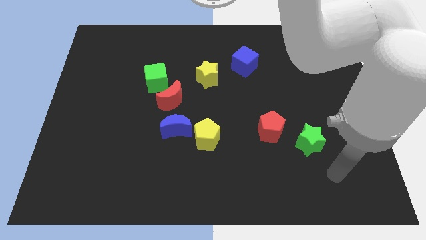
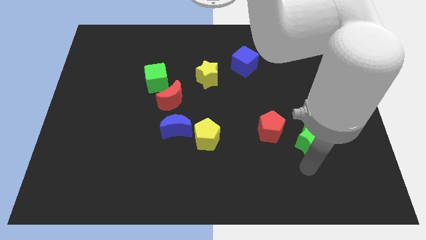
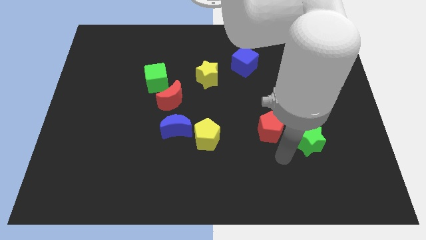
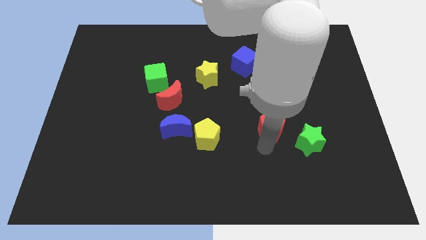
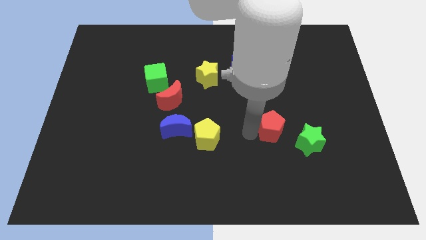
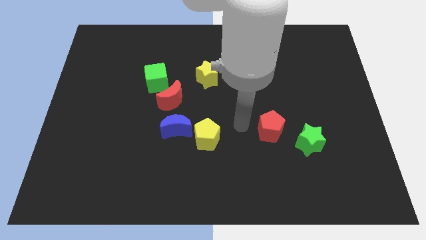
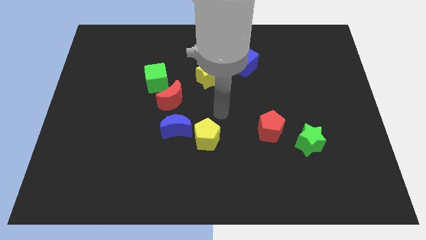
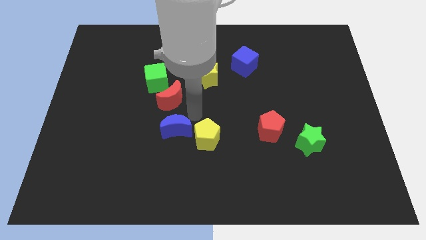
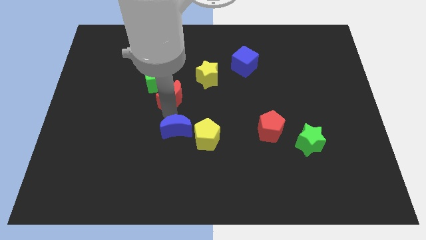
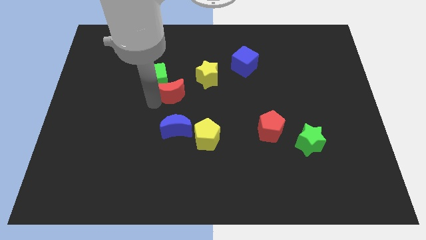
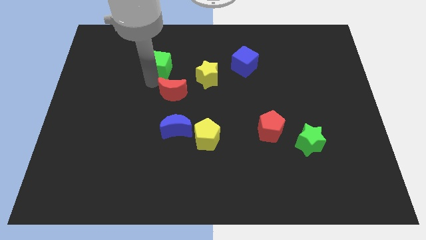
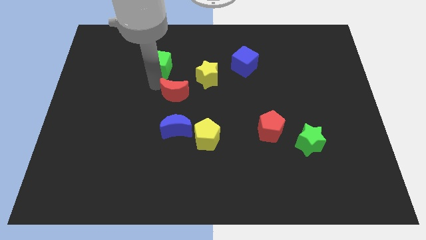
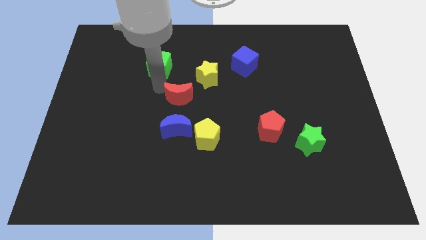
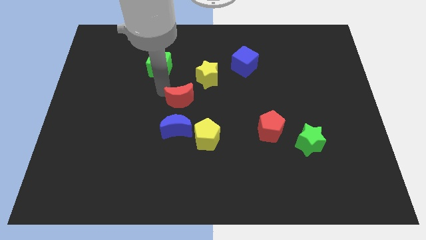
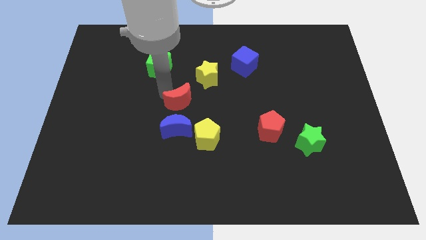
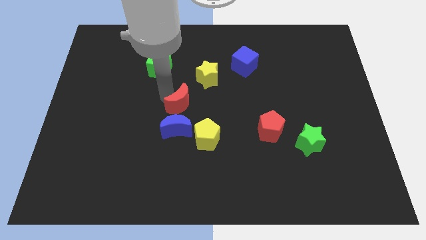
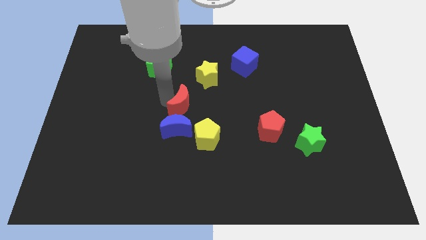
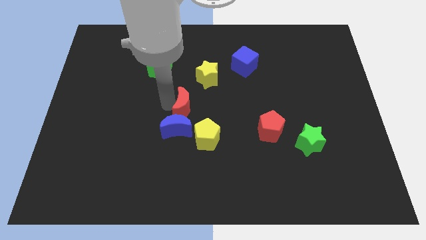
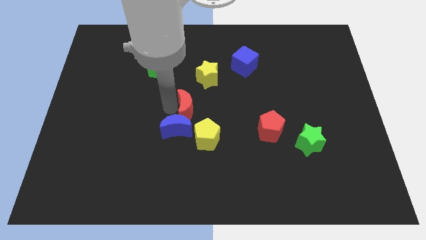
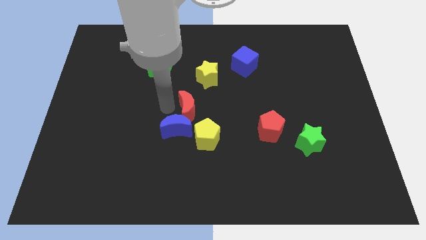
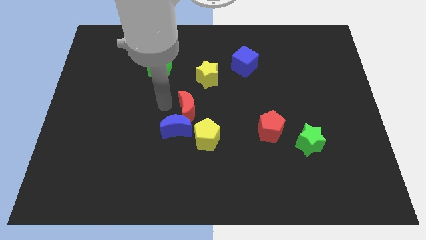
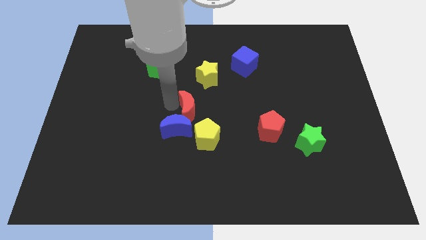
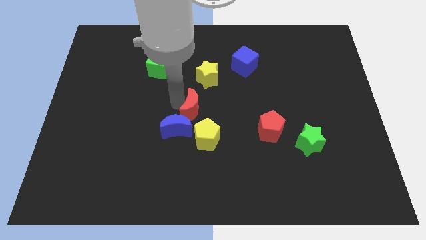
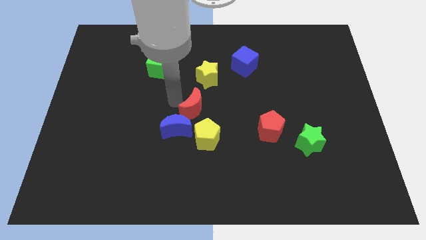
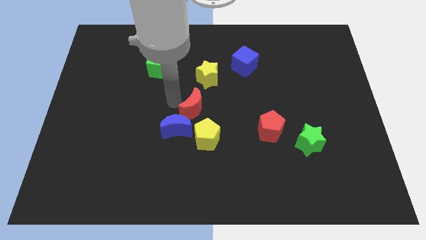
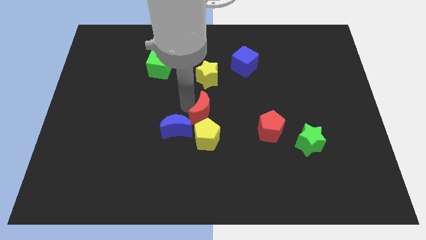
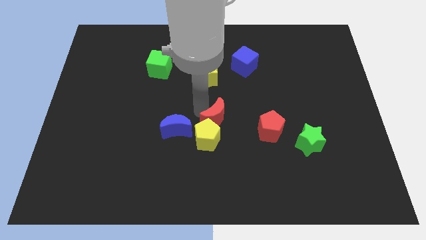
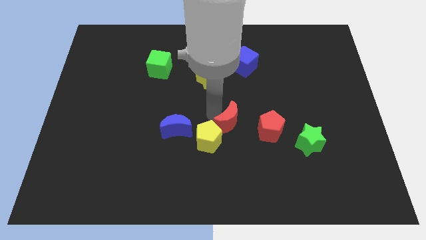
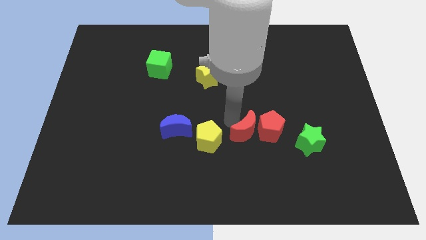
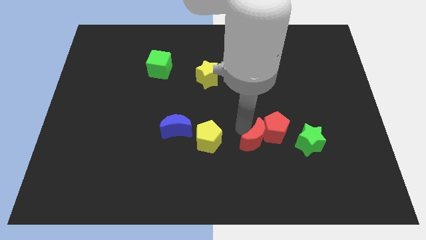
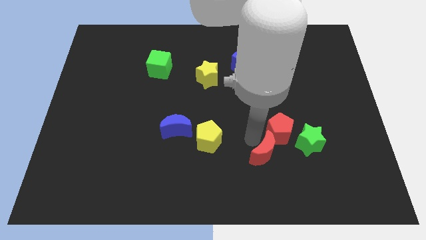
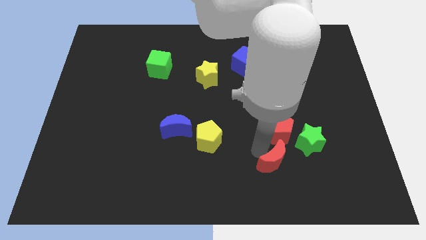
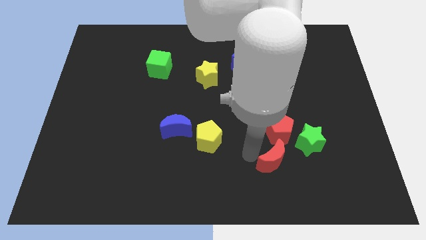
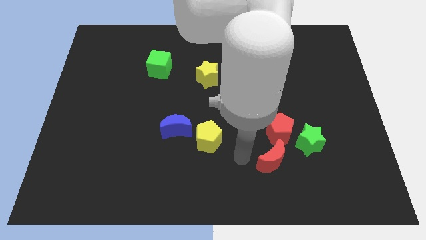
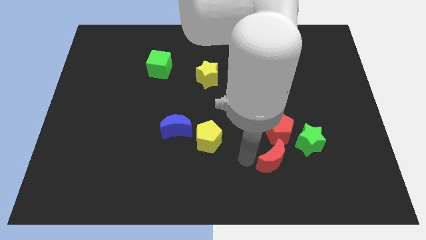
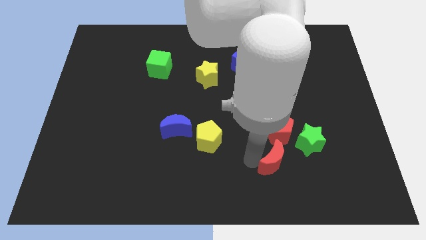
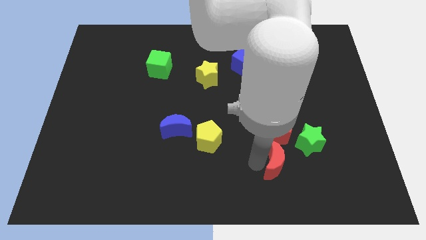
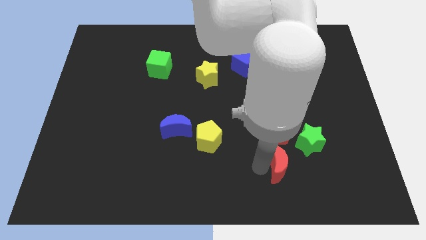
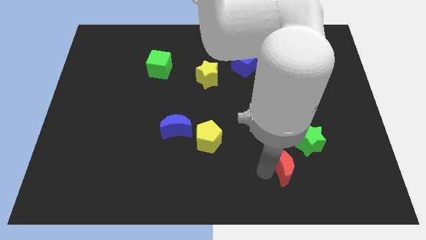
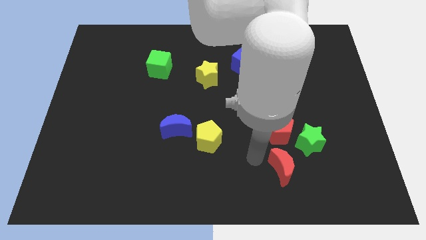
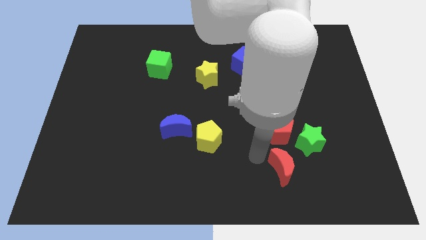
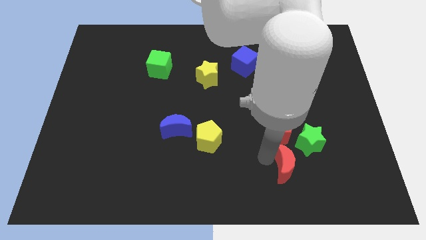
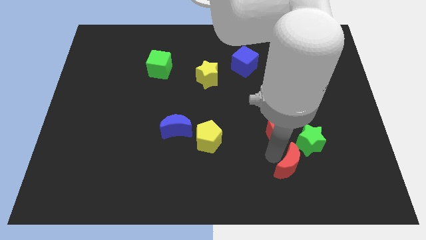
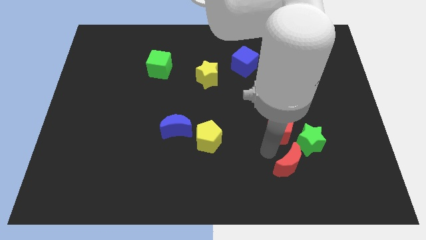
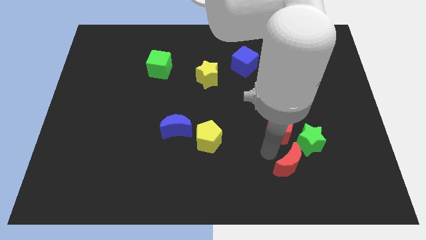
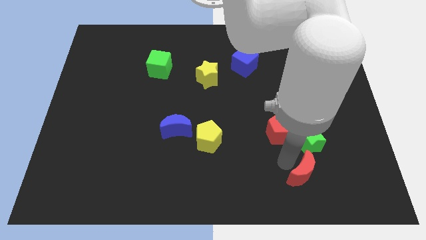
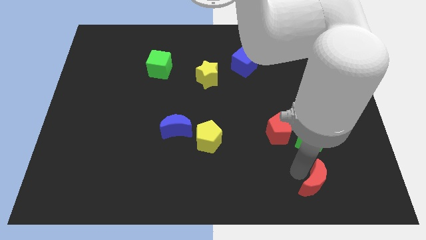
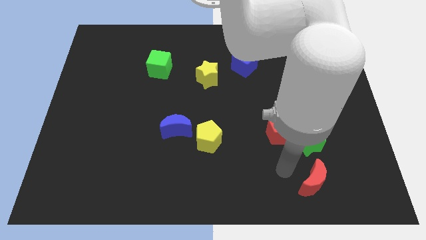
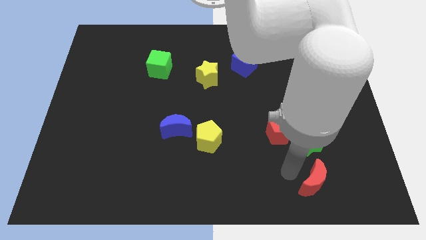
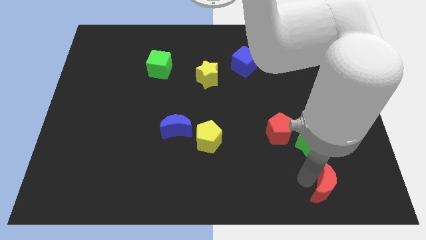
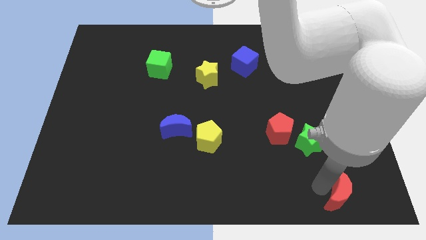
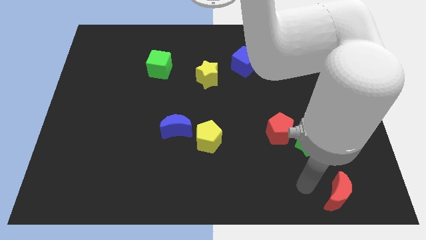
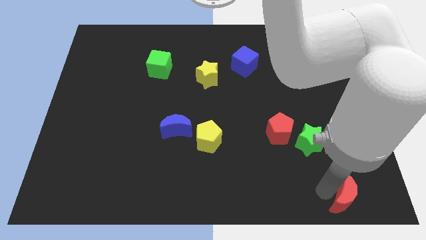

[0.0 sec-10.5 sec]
slide the red moon to the bottom right corner

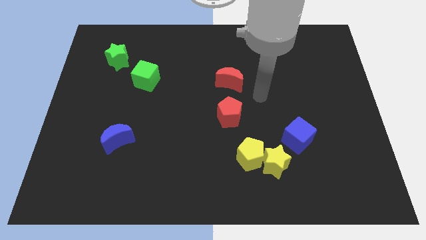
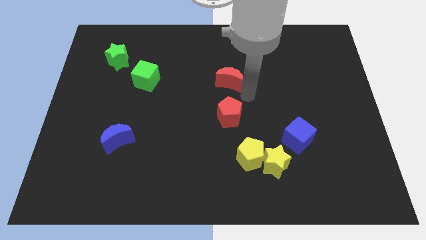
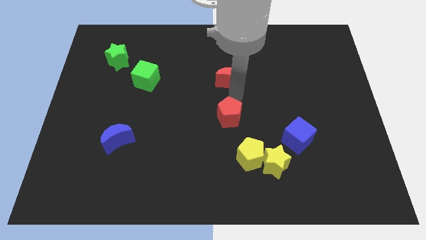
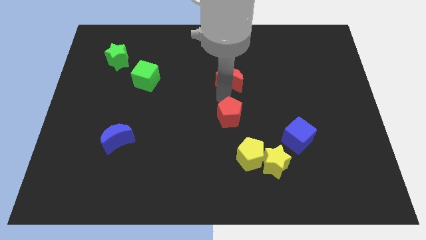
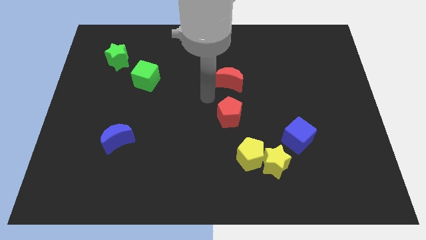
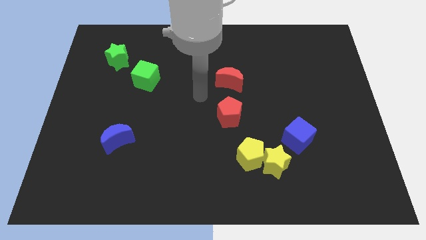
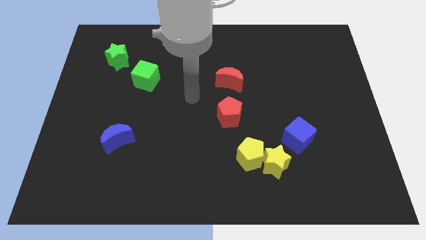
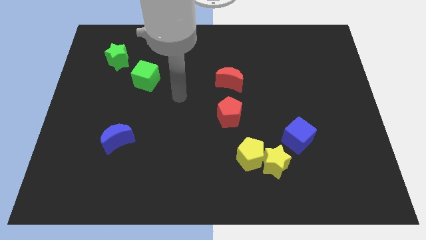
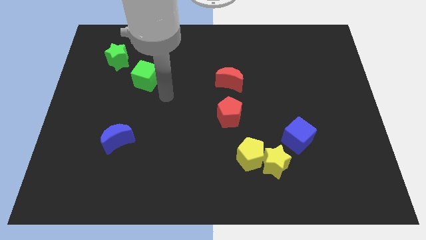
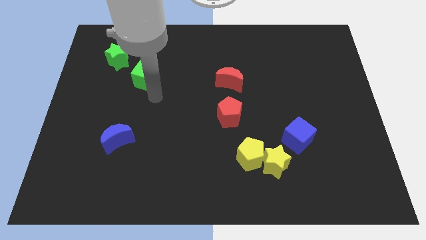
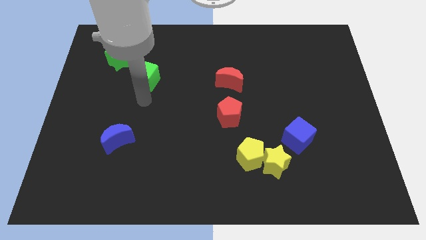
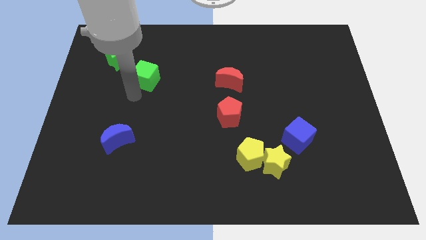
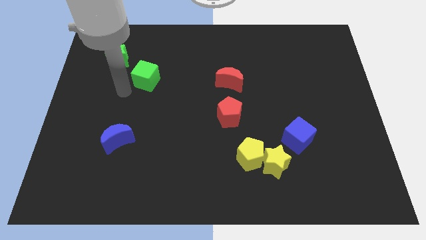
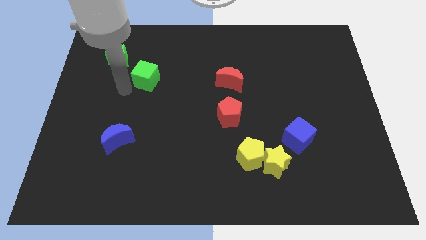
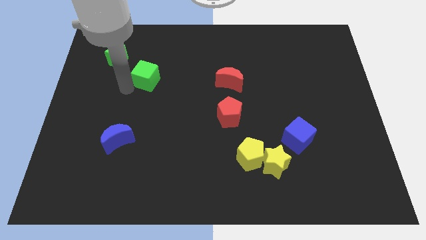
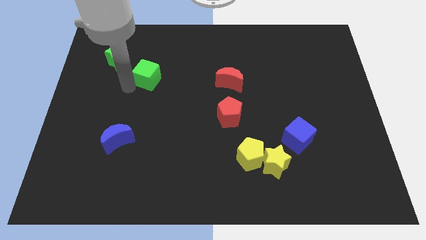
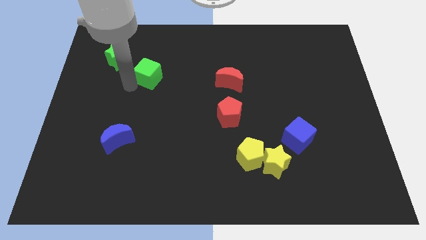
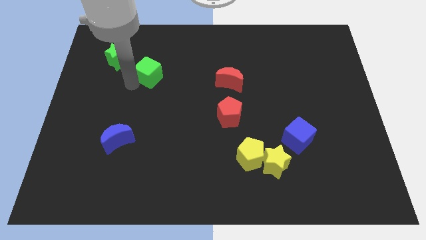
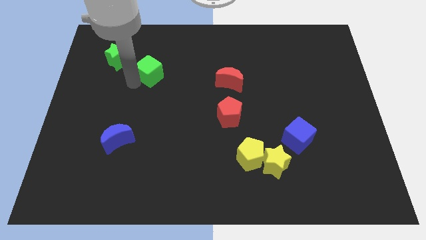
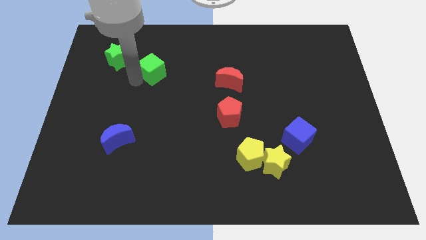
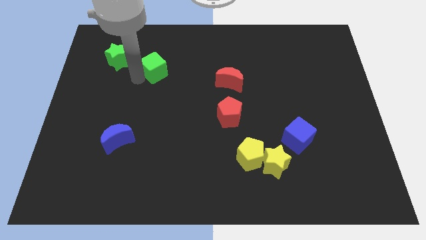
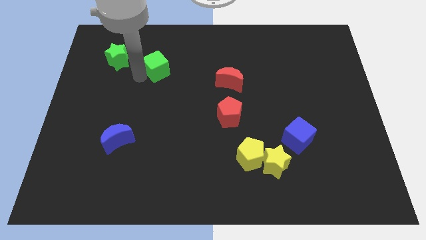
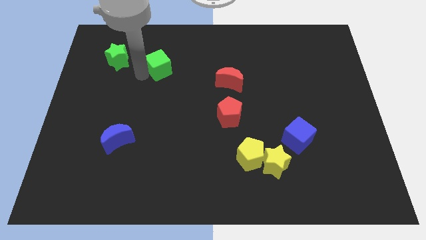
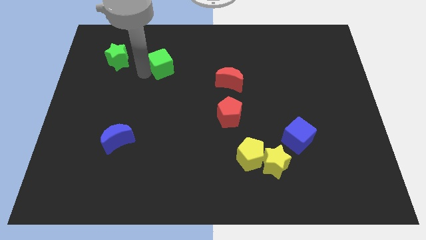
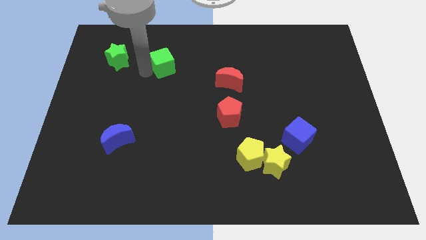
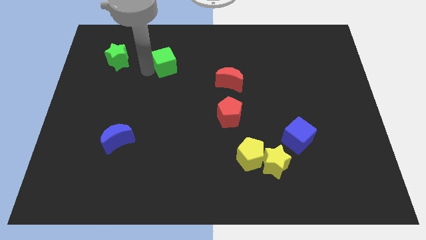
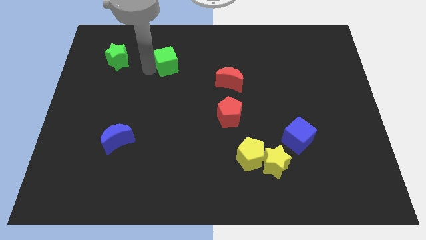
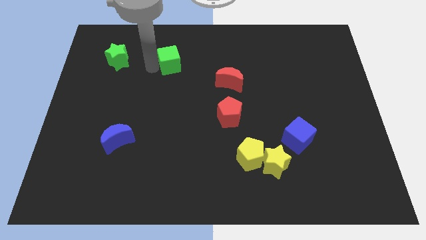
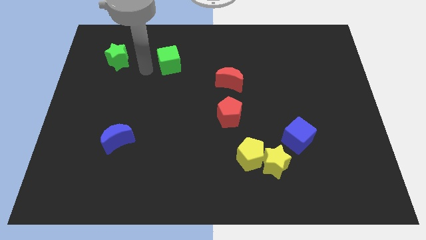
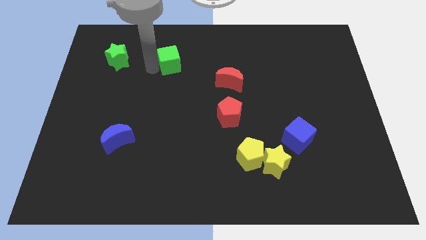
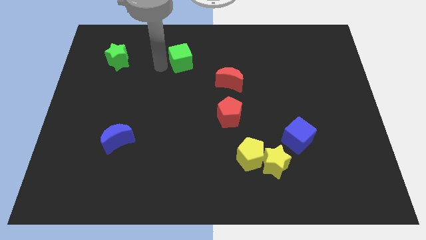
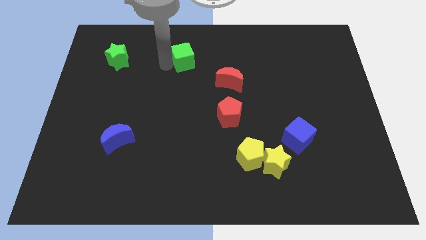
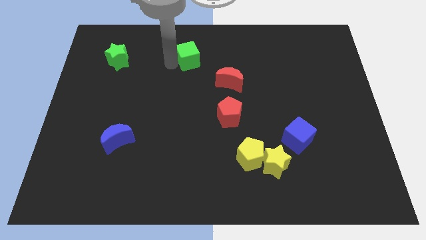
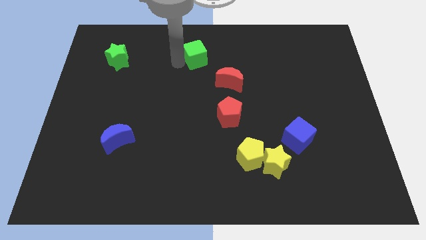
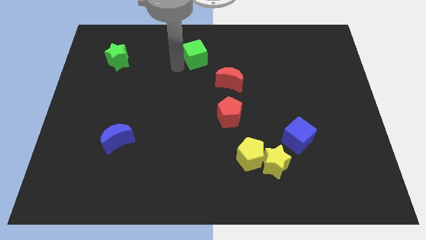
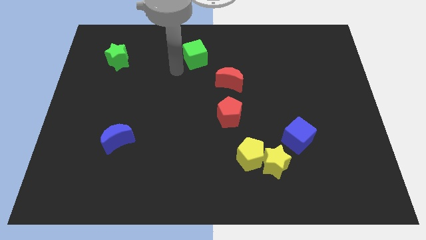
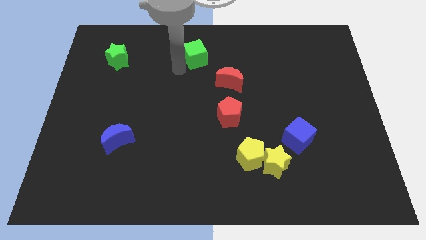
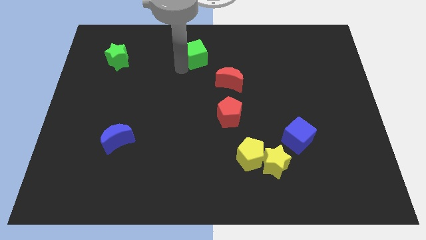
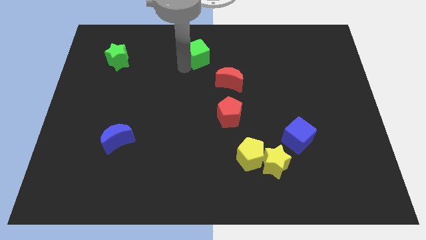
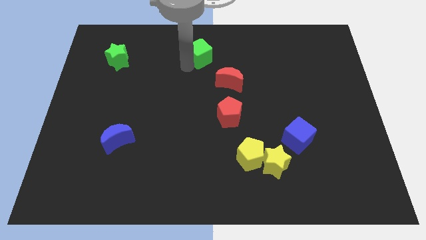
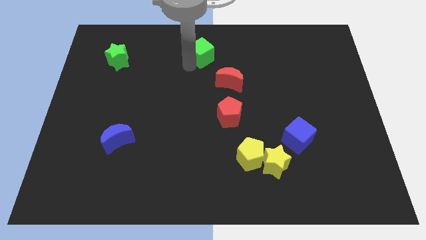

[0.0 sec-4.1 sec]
push the green cube to the towards your base
